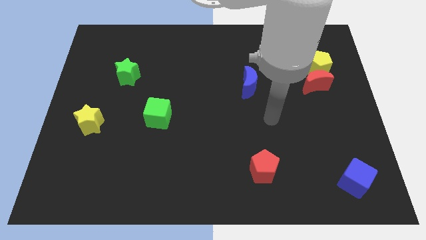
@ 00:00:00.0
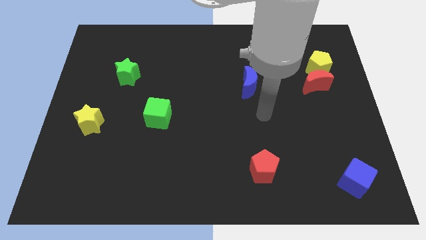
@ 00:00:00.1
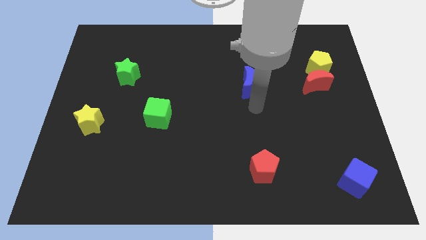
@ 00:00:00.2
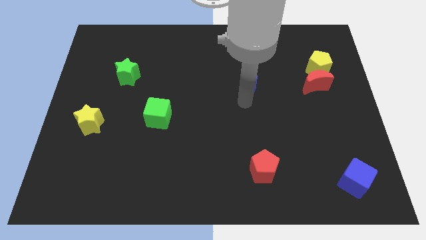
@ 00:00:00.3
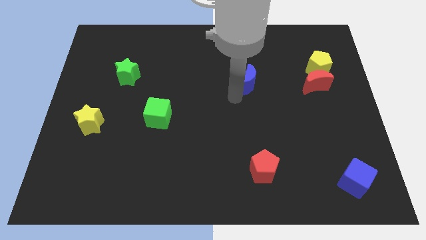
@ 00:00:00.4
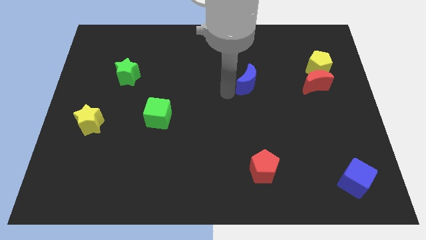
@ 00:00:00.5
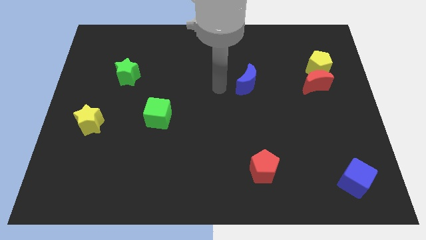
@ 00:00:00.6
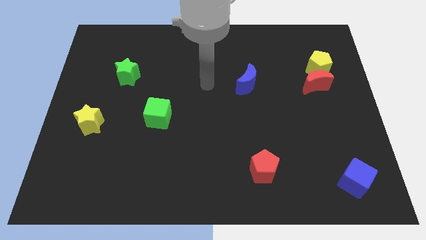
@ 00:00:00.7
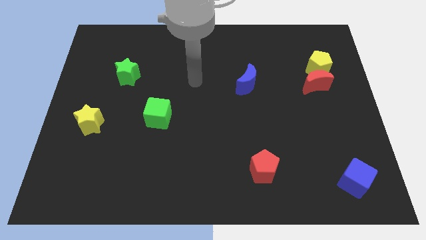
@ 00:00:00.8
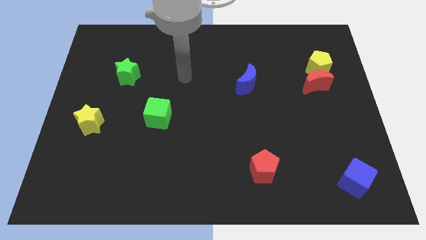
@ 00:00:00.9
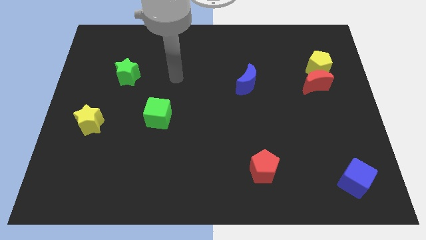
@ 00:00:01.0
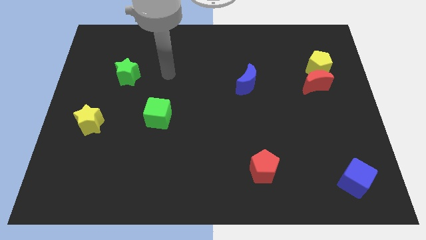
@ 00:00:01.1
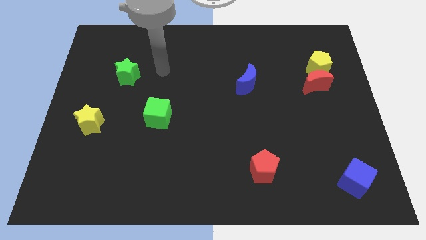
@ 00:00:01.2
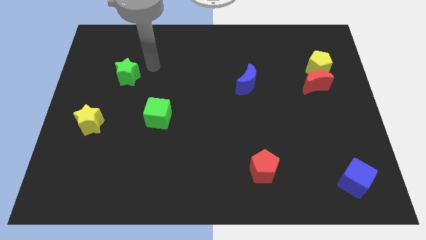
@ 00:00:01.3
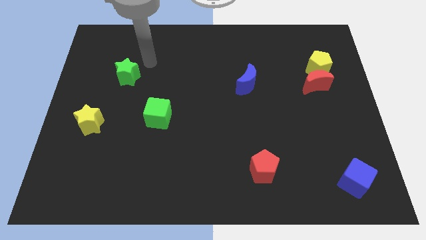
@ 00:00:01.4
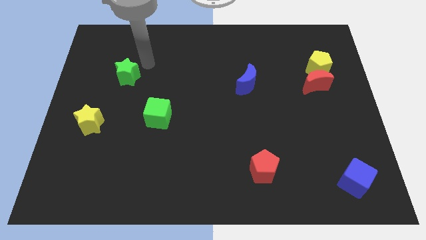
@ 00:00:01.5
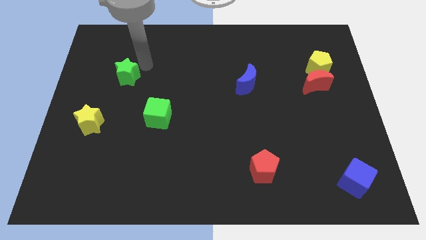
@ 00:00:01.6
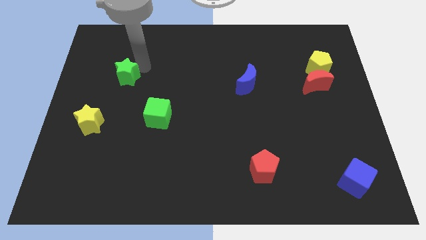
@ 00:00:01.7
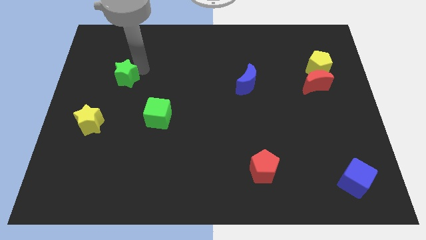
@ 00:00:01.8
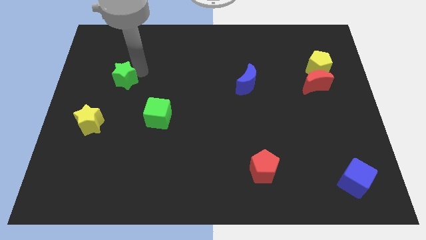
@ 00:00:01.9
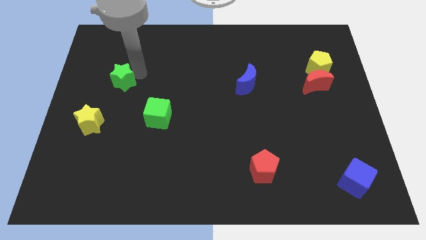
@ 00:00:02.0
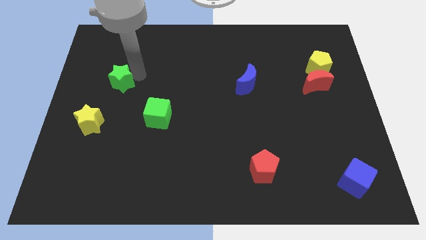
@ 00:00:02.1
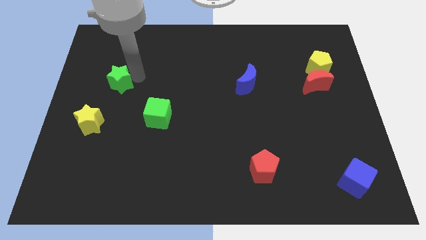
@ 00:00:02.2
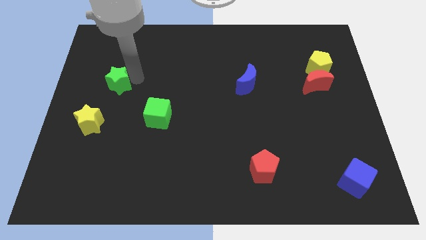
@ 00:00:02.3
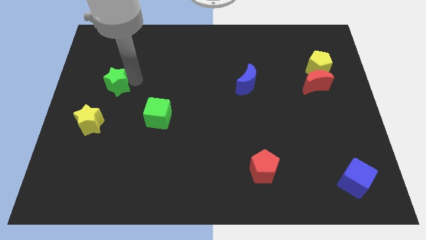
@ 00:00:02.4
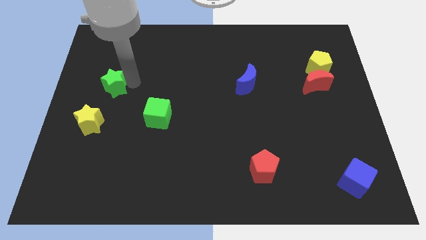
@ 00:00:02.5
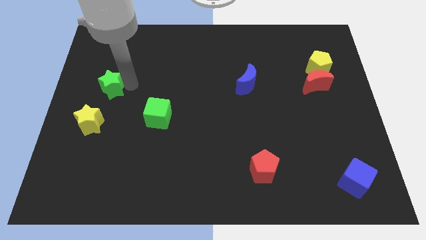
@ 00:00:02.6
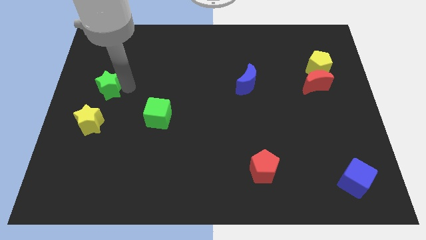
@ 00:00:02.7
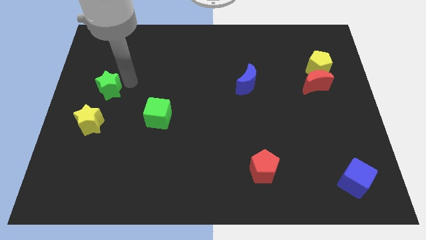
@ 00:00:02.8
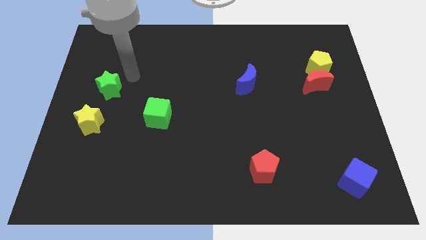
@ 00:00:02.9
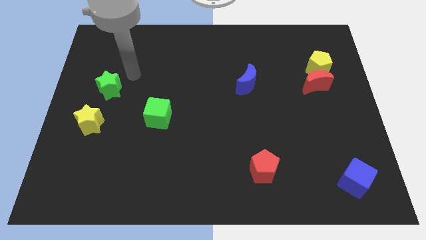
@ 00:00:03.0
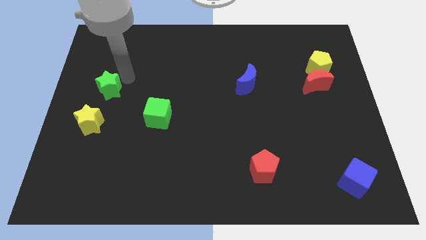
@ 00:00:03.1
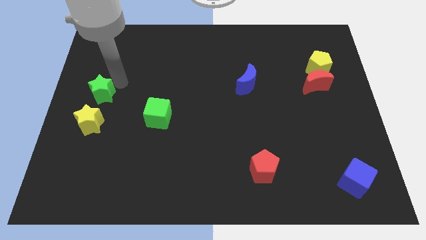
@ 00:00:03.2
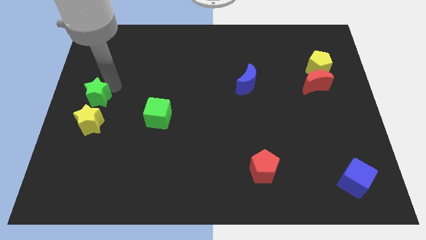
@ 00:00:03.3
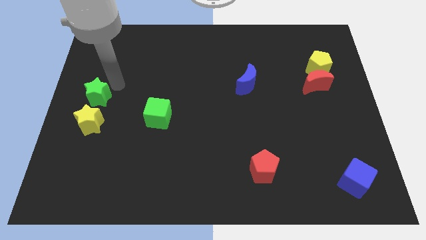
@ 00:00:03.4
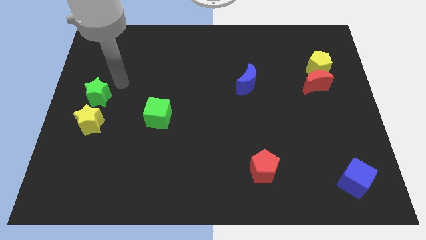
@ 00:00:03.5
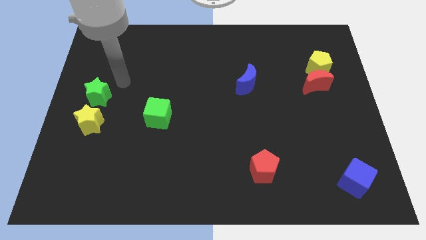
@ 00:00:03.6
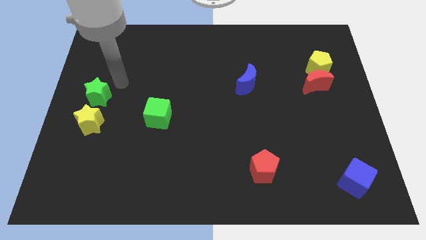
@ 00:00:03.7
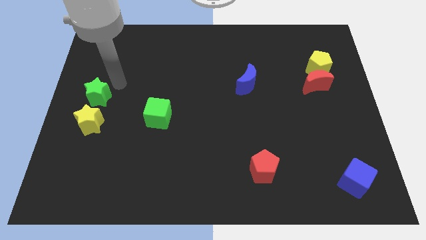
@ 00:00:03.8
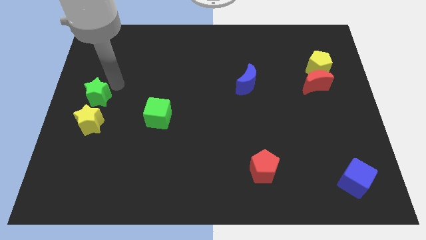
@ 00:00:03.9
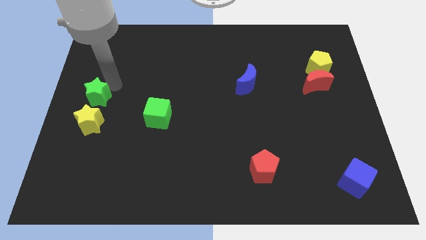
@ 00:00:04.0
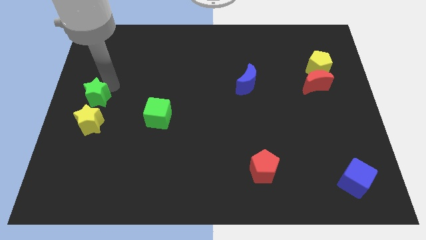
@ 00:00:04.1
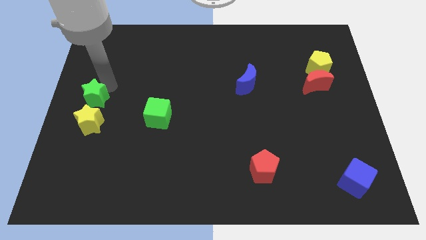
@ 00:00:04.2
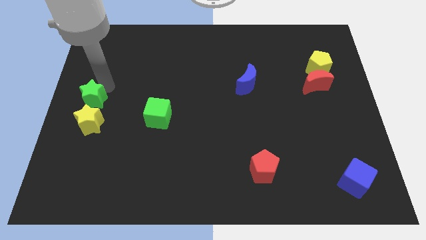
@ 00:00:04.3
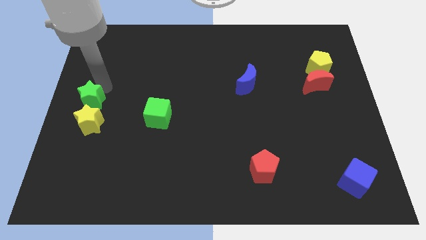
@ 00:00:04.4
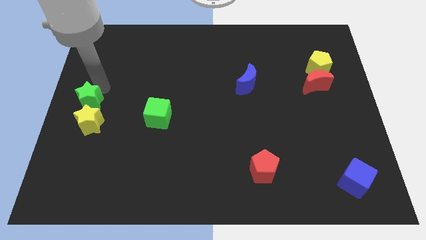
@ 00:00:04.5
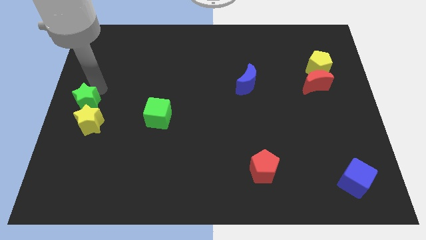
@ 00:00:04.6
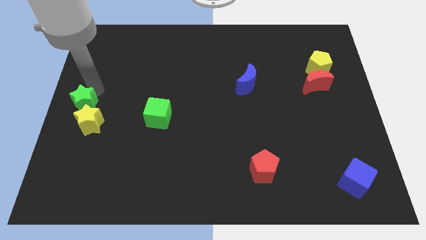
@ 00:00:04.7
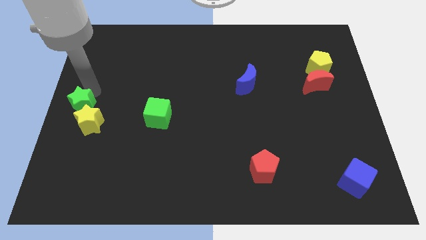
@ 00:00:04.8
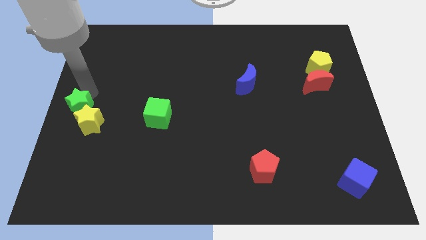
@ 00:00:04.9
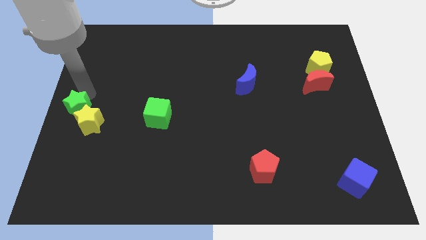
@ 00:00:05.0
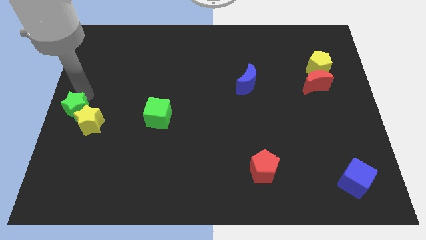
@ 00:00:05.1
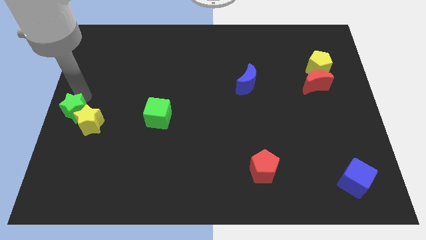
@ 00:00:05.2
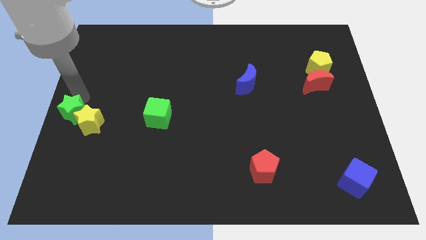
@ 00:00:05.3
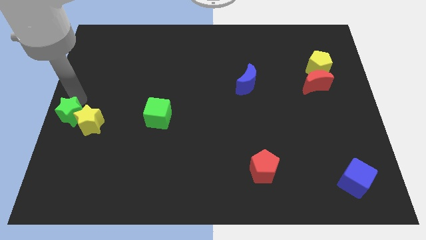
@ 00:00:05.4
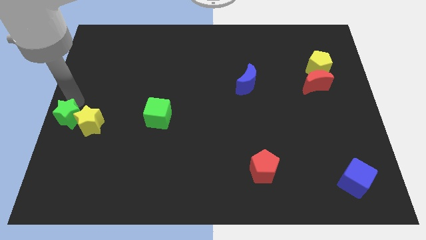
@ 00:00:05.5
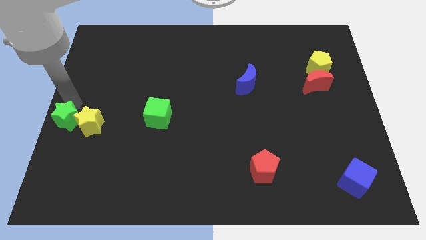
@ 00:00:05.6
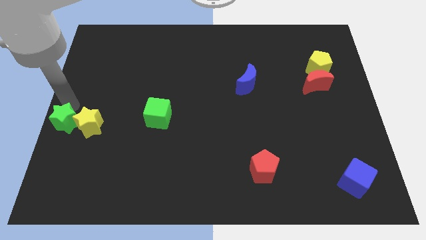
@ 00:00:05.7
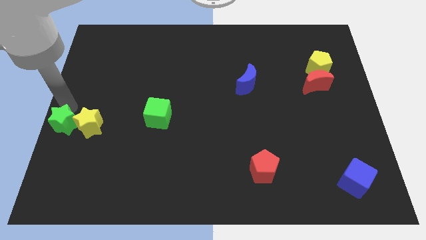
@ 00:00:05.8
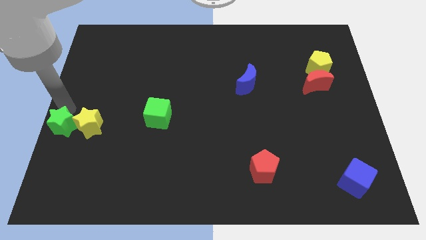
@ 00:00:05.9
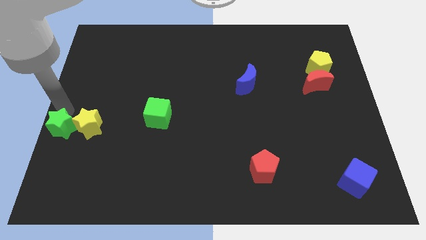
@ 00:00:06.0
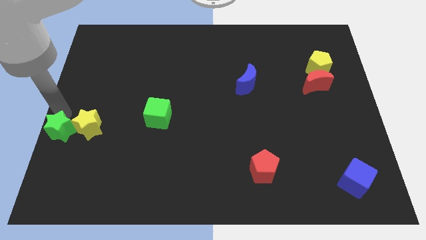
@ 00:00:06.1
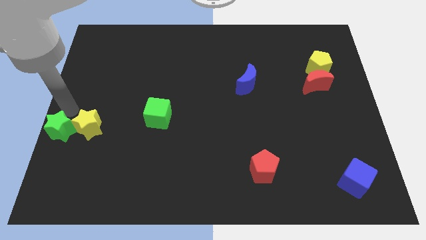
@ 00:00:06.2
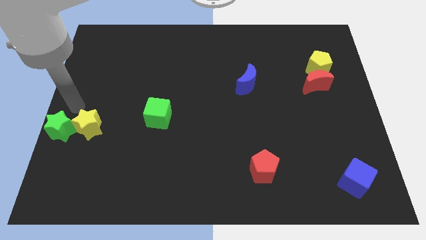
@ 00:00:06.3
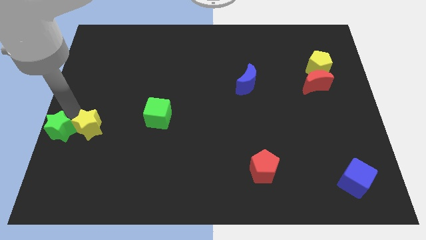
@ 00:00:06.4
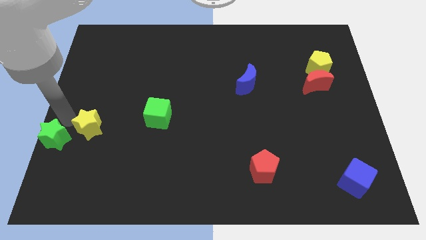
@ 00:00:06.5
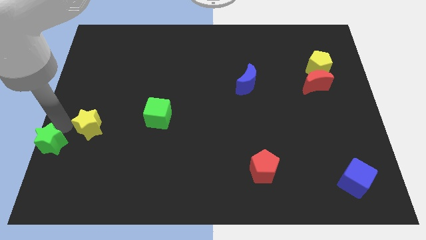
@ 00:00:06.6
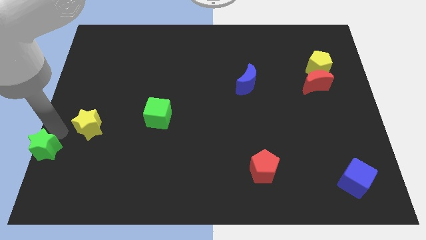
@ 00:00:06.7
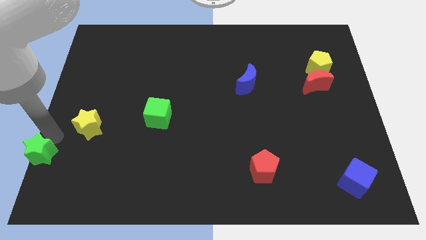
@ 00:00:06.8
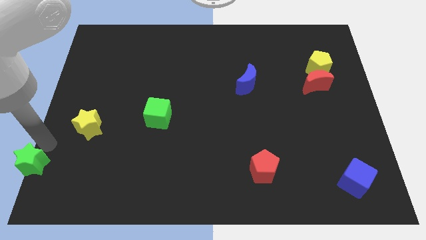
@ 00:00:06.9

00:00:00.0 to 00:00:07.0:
put the green star to the bottom left of the board
